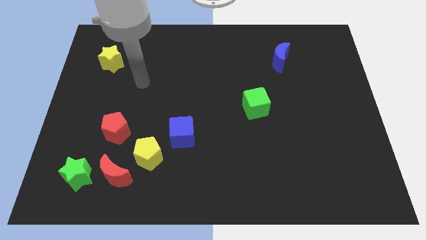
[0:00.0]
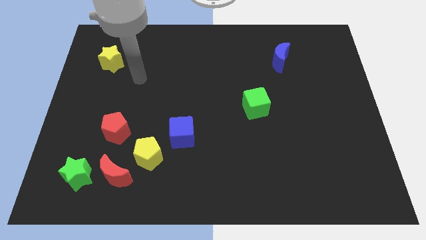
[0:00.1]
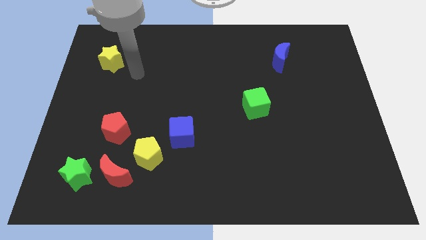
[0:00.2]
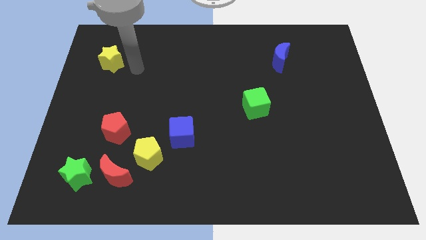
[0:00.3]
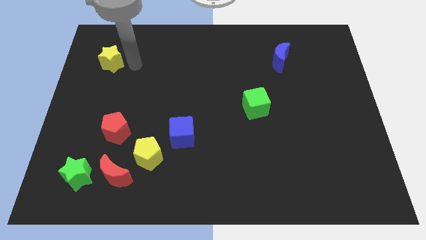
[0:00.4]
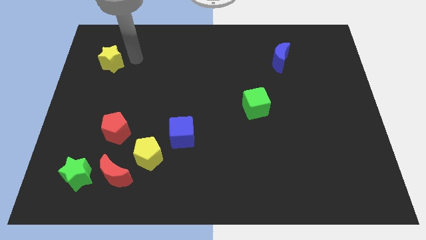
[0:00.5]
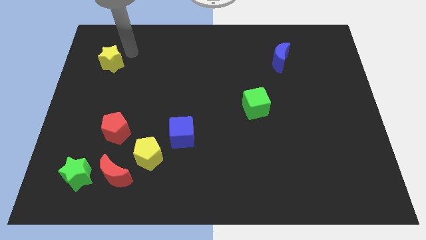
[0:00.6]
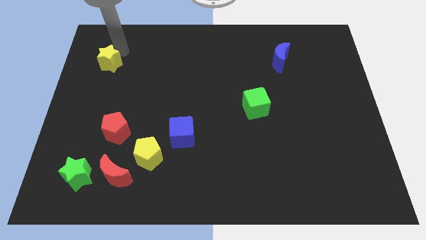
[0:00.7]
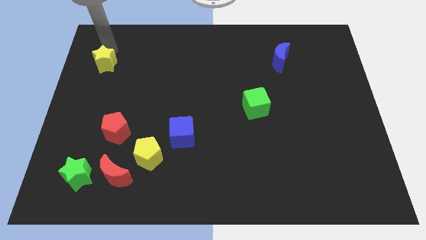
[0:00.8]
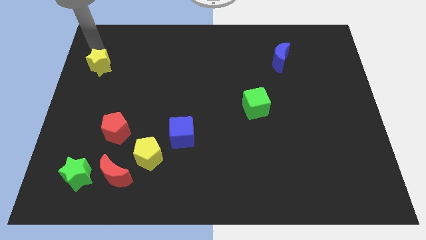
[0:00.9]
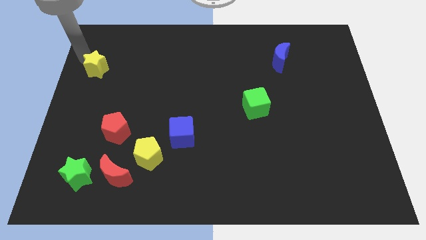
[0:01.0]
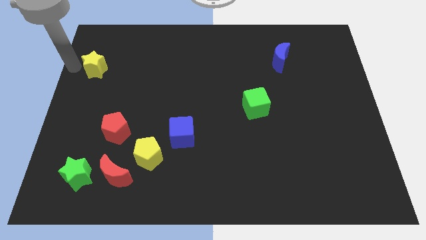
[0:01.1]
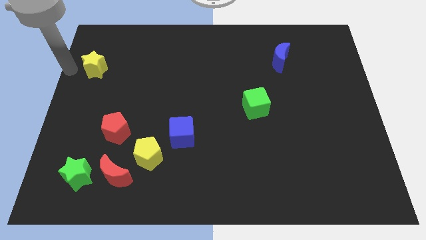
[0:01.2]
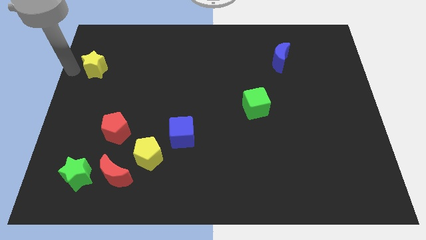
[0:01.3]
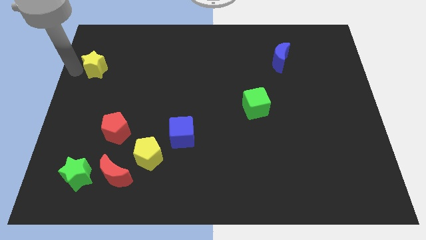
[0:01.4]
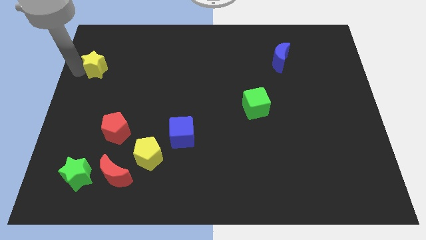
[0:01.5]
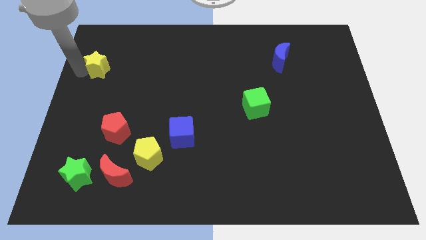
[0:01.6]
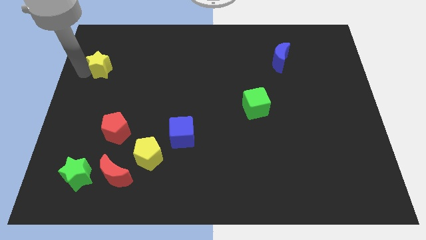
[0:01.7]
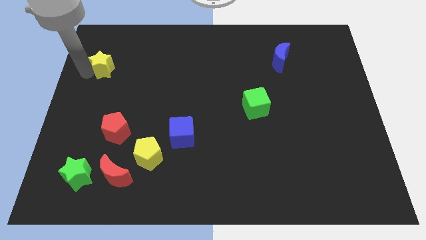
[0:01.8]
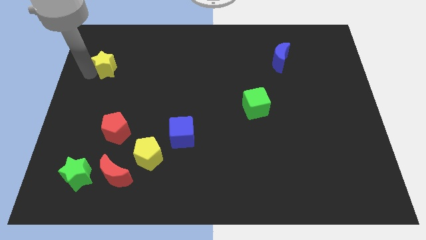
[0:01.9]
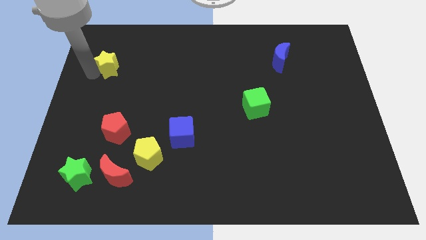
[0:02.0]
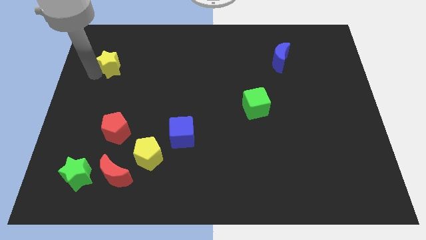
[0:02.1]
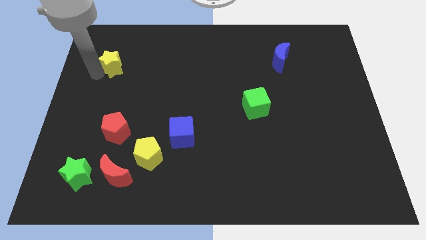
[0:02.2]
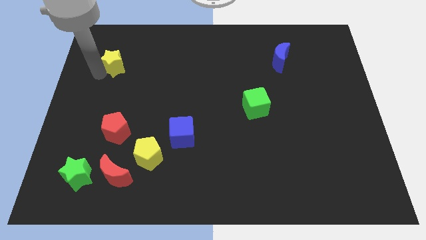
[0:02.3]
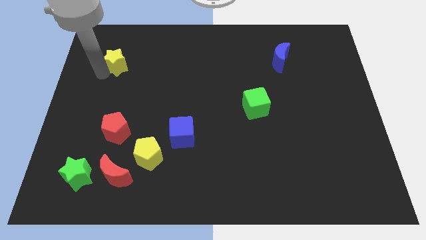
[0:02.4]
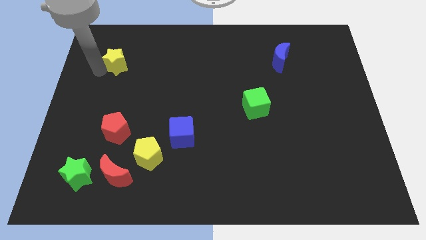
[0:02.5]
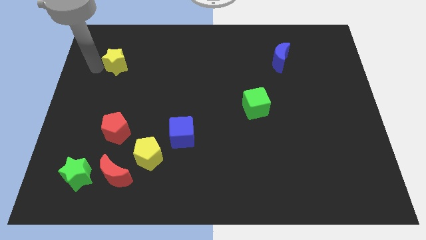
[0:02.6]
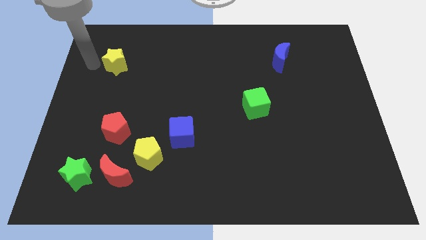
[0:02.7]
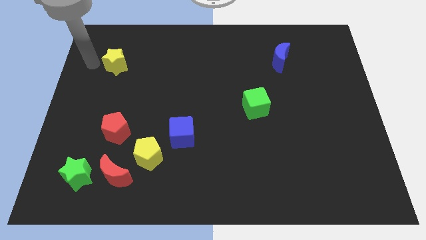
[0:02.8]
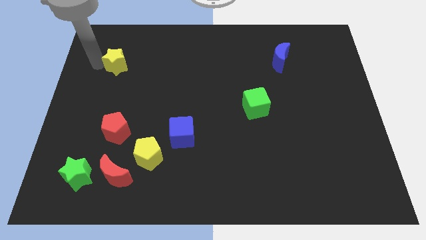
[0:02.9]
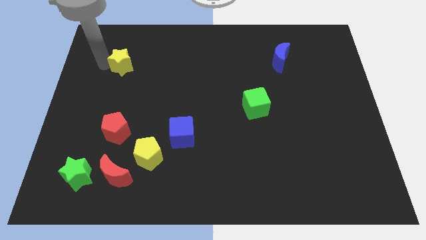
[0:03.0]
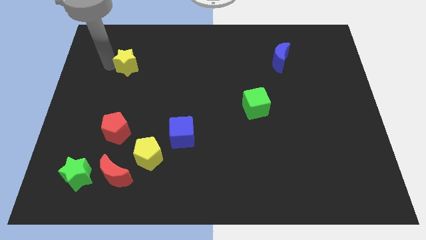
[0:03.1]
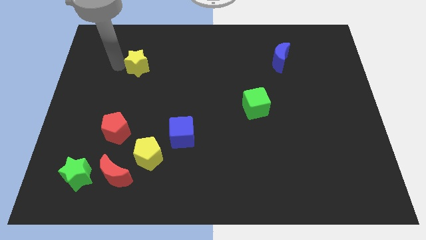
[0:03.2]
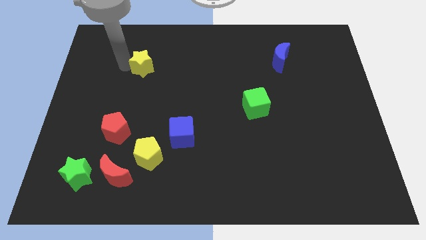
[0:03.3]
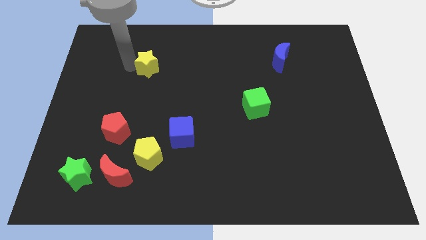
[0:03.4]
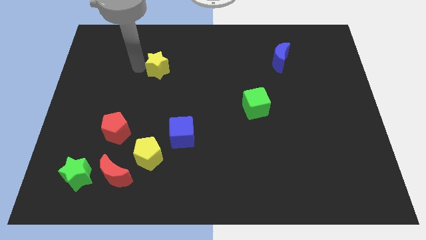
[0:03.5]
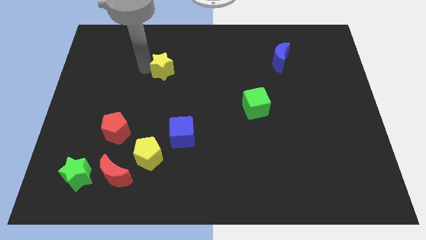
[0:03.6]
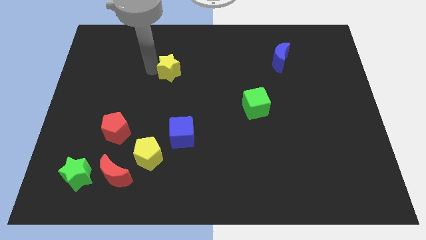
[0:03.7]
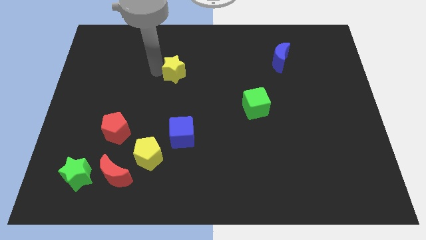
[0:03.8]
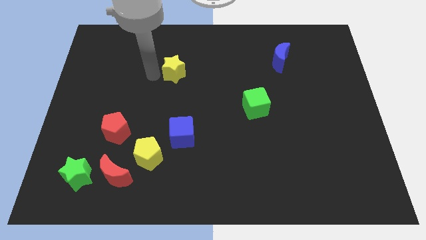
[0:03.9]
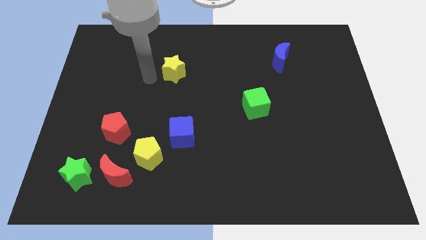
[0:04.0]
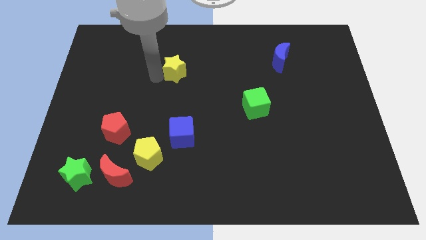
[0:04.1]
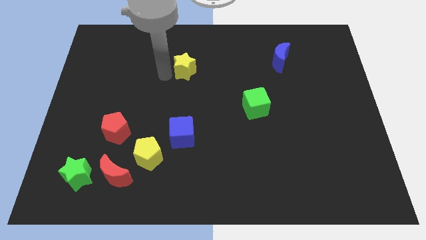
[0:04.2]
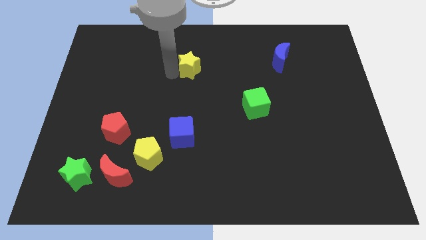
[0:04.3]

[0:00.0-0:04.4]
push the yellow star to the right

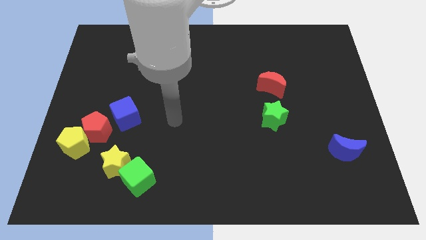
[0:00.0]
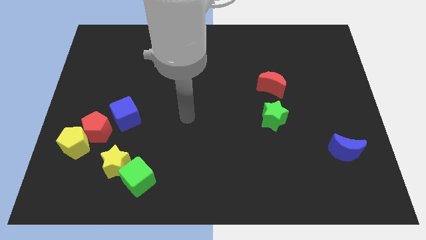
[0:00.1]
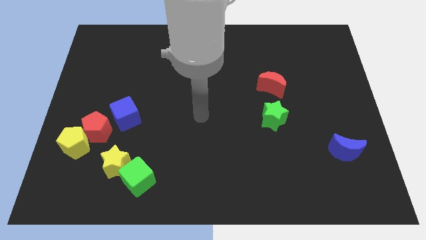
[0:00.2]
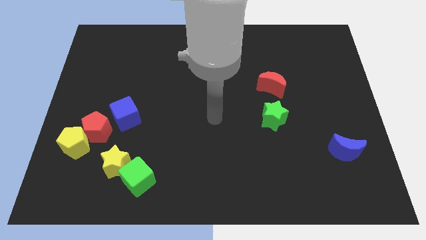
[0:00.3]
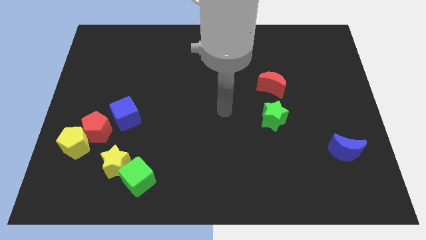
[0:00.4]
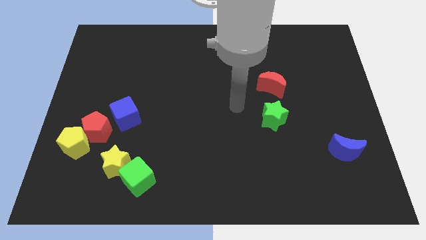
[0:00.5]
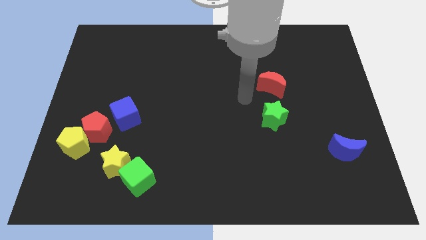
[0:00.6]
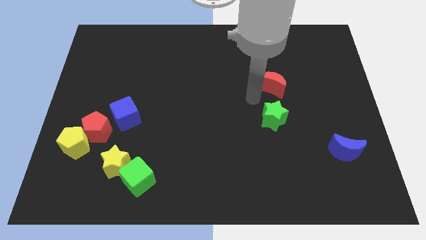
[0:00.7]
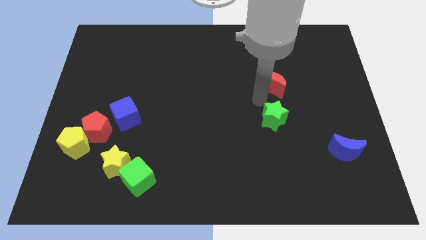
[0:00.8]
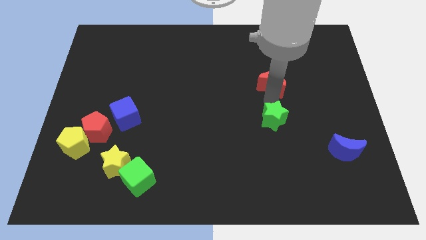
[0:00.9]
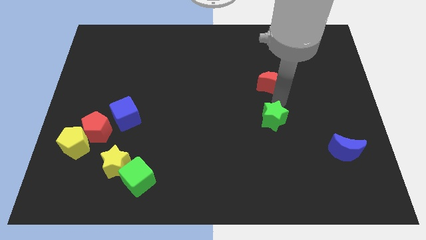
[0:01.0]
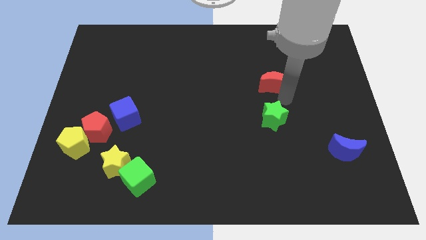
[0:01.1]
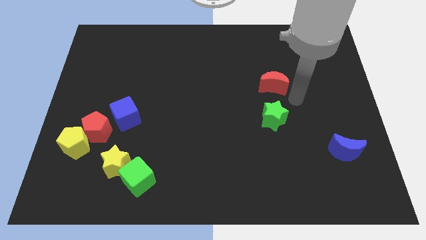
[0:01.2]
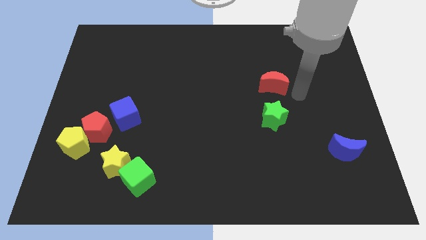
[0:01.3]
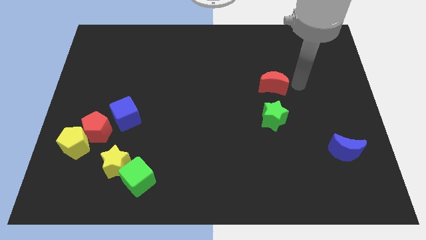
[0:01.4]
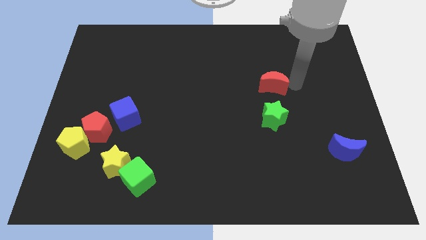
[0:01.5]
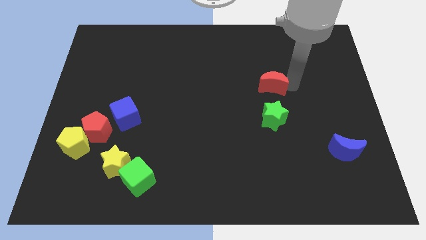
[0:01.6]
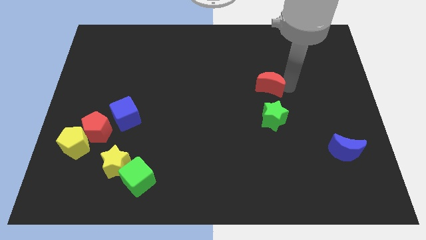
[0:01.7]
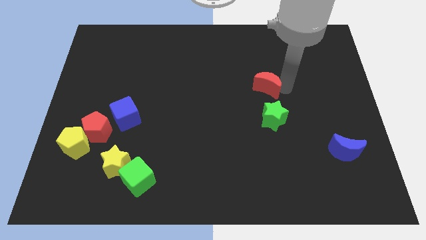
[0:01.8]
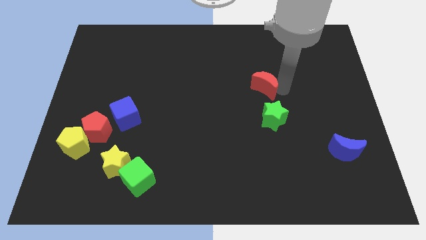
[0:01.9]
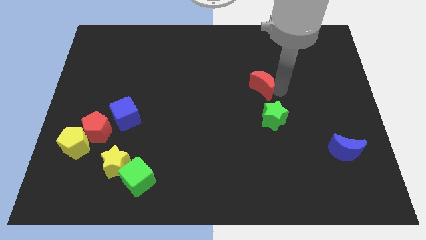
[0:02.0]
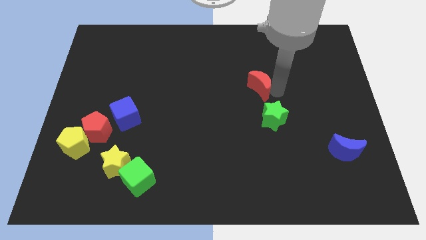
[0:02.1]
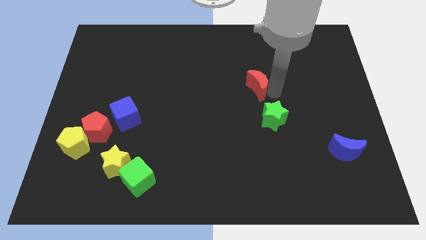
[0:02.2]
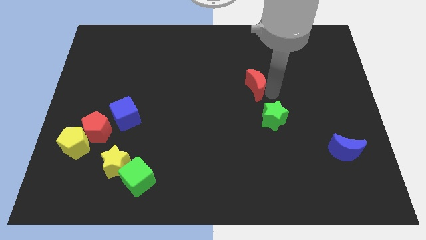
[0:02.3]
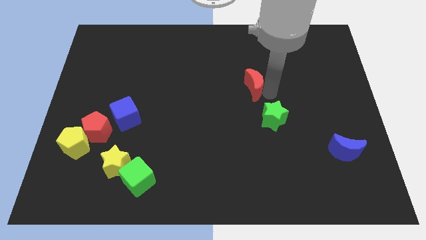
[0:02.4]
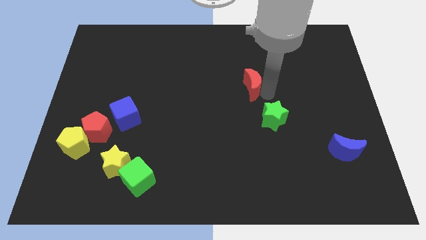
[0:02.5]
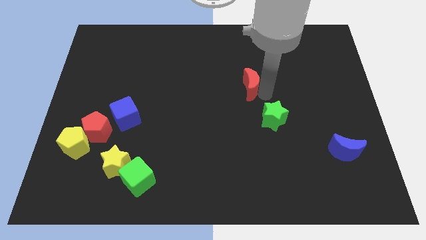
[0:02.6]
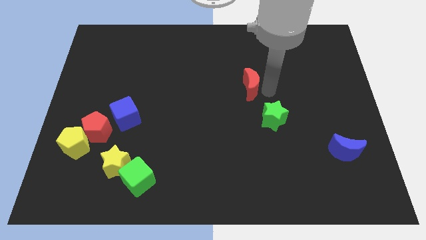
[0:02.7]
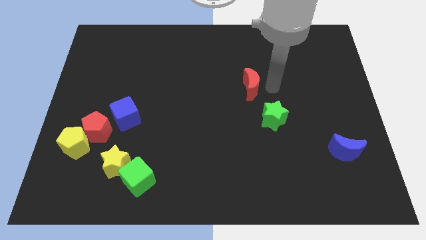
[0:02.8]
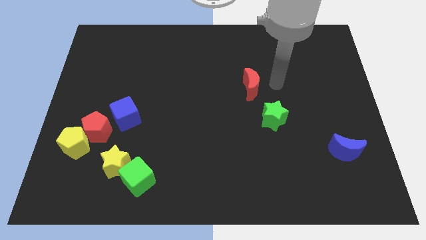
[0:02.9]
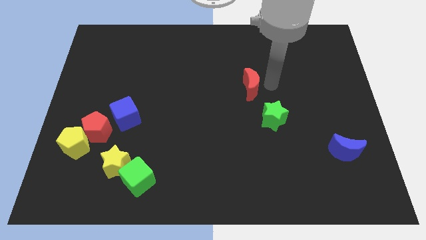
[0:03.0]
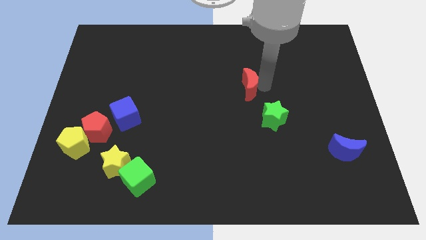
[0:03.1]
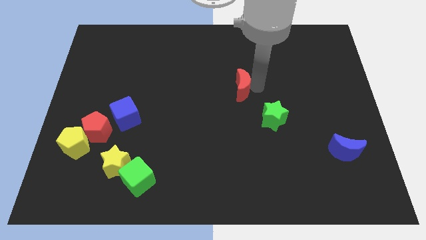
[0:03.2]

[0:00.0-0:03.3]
move the red moon to the left a bit

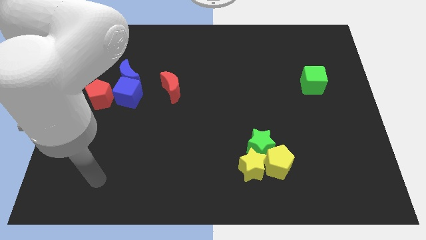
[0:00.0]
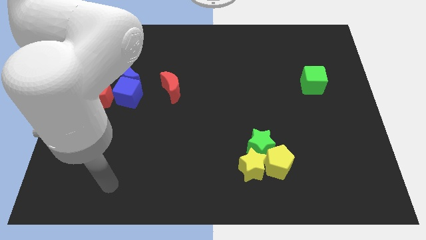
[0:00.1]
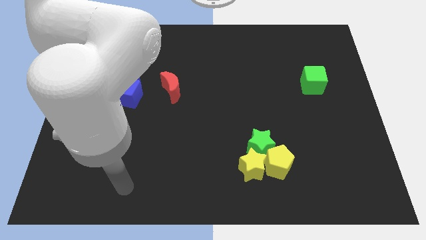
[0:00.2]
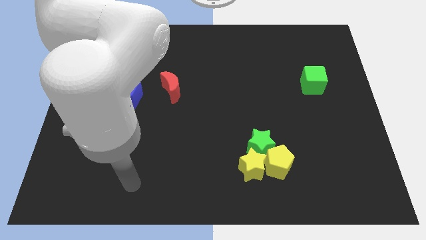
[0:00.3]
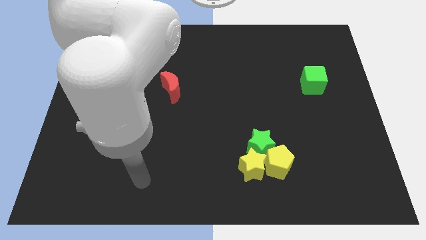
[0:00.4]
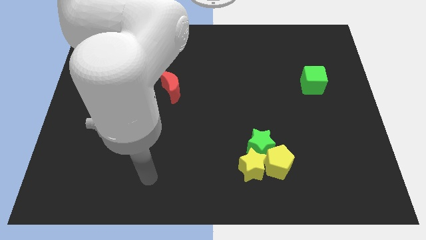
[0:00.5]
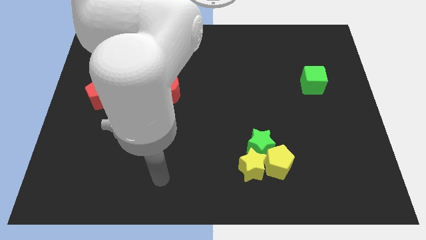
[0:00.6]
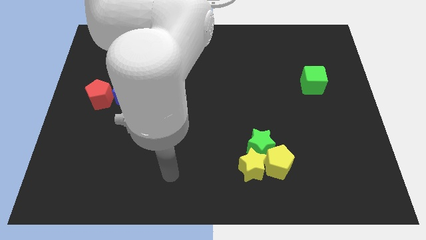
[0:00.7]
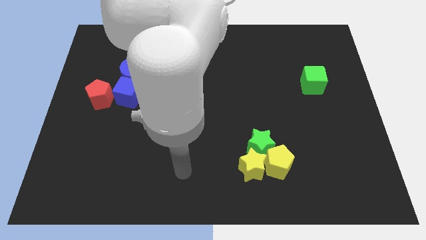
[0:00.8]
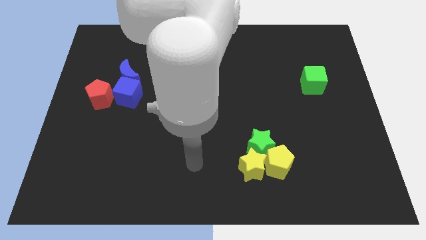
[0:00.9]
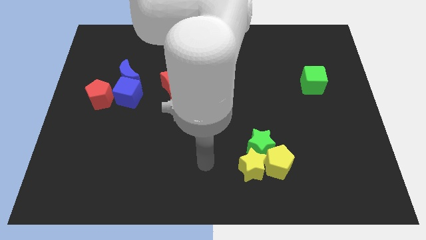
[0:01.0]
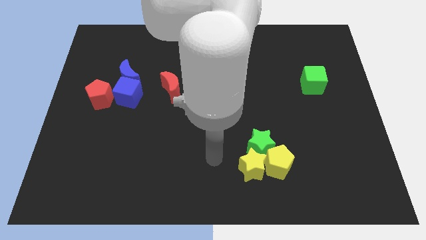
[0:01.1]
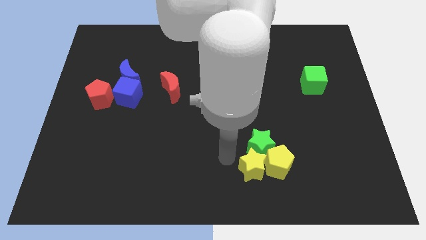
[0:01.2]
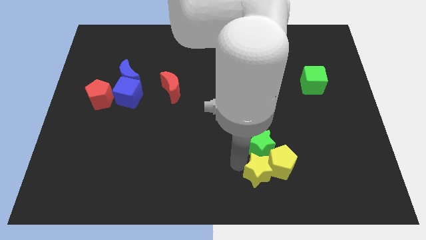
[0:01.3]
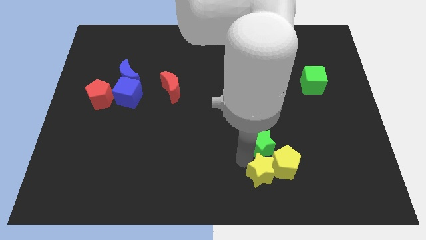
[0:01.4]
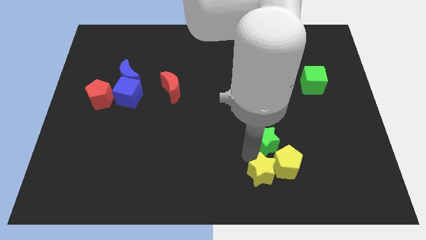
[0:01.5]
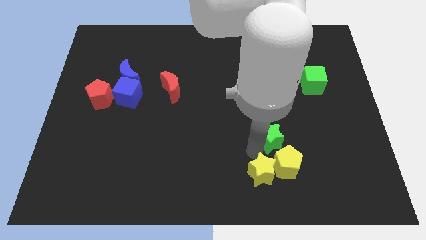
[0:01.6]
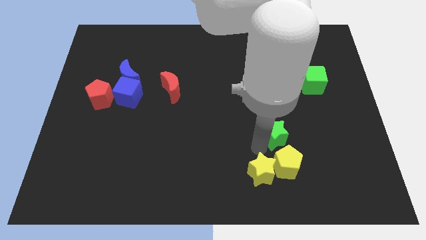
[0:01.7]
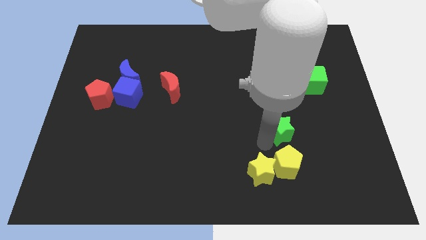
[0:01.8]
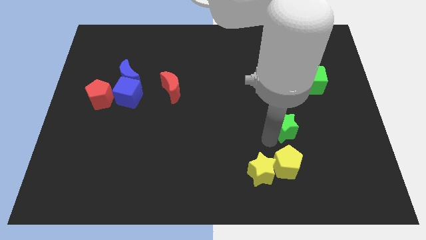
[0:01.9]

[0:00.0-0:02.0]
move the green star upwards and to the right diagonally slightly
